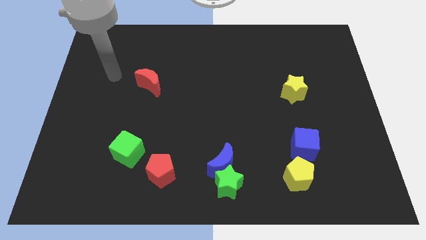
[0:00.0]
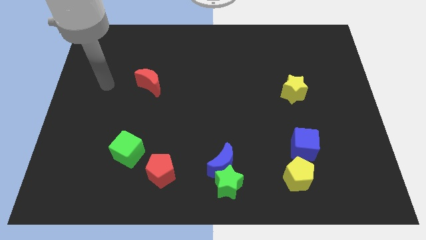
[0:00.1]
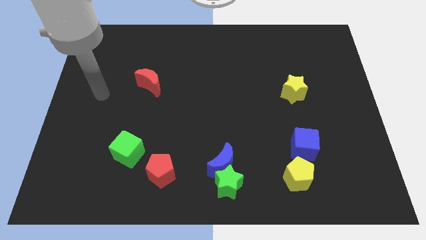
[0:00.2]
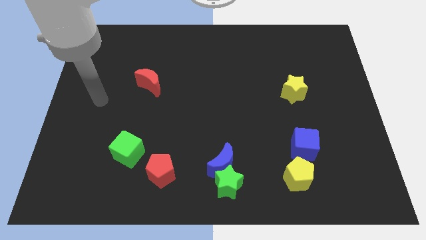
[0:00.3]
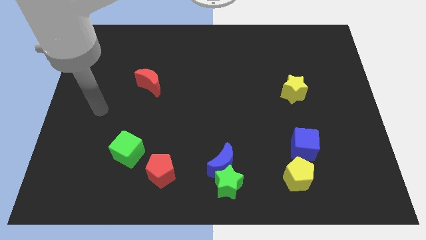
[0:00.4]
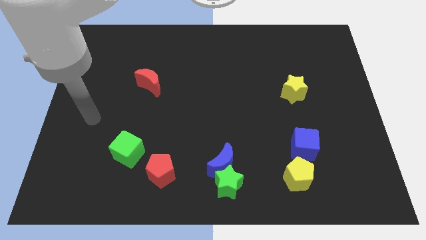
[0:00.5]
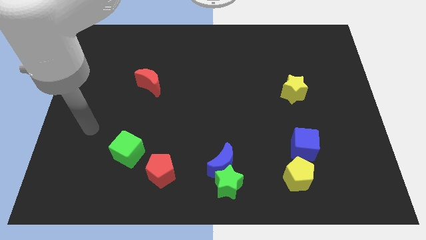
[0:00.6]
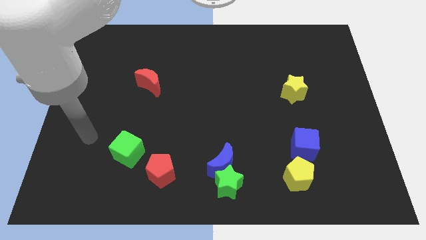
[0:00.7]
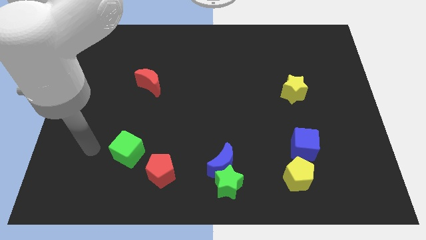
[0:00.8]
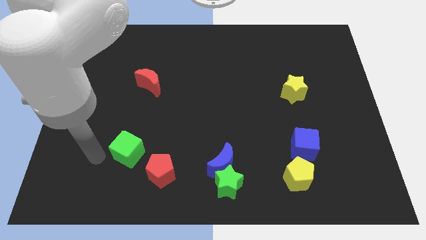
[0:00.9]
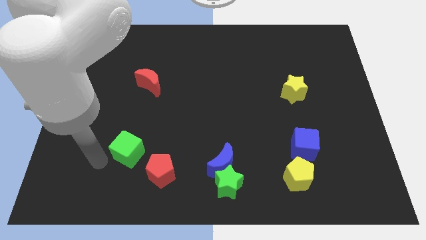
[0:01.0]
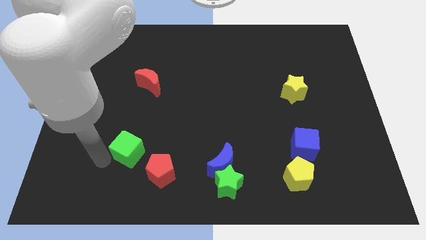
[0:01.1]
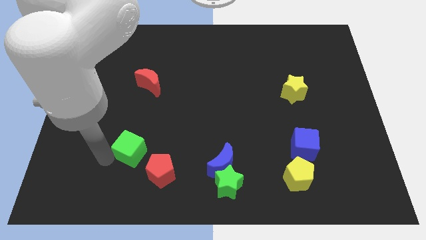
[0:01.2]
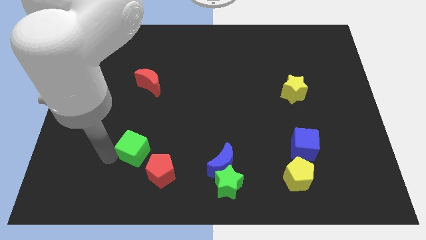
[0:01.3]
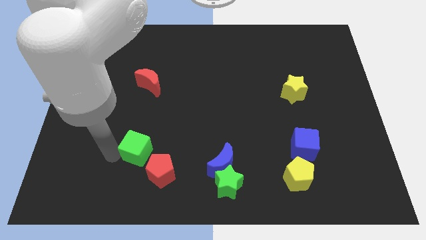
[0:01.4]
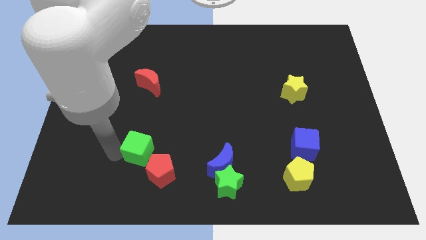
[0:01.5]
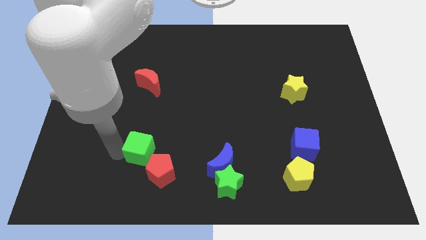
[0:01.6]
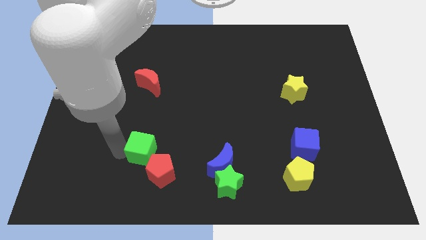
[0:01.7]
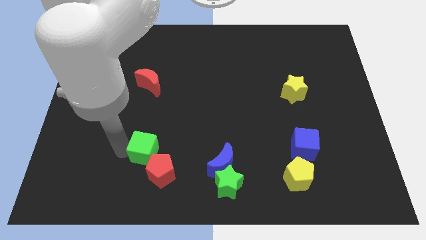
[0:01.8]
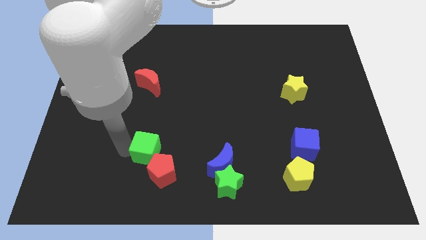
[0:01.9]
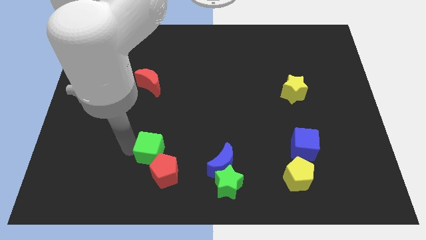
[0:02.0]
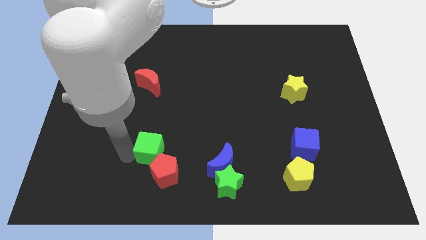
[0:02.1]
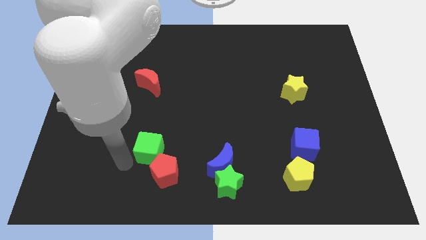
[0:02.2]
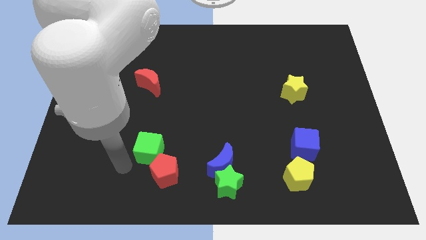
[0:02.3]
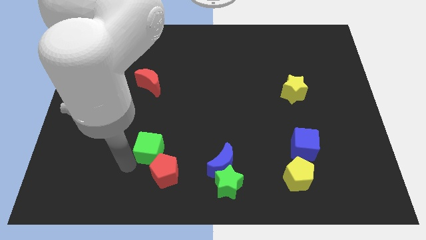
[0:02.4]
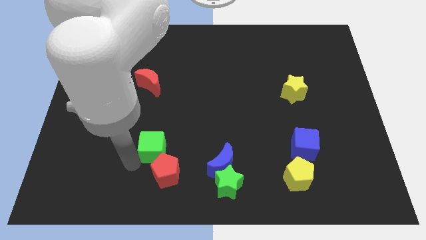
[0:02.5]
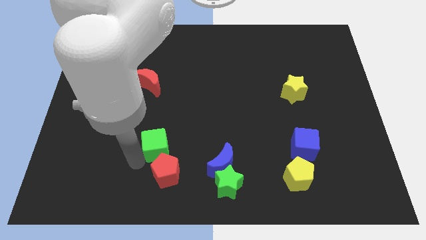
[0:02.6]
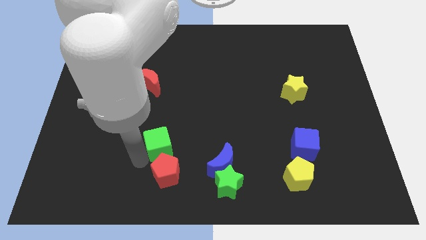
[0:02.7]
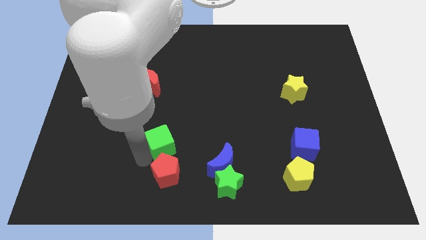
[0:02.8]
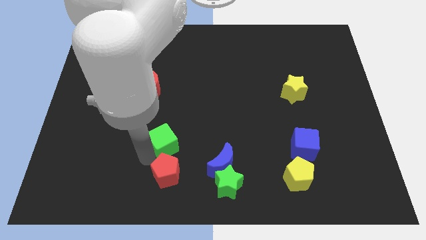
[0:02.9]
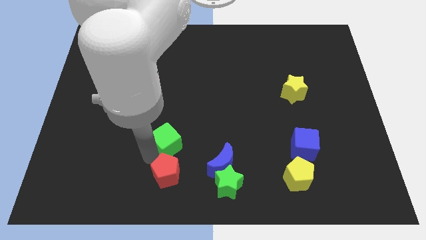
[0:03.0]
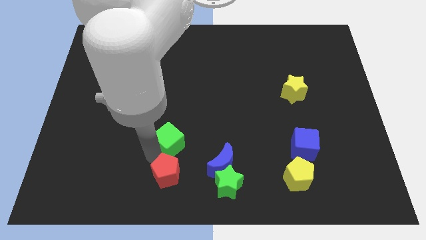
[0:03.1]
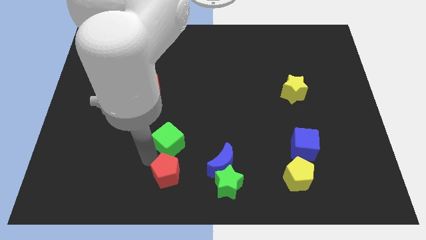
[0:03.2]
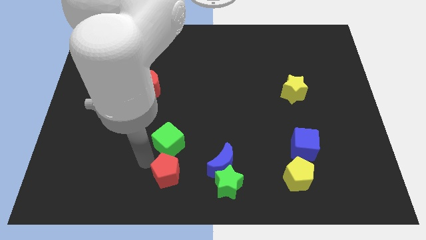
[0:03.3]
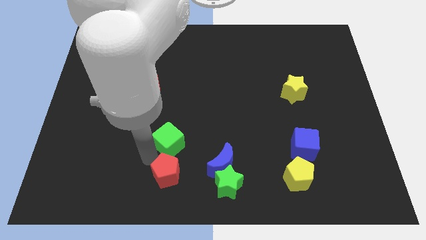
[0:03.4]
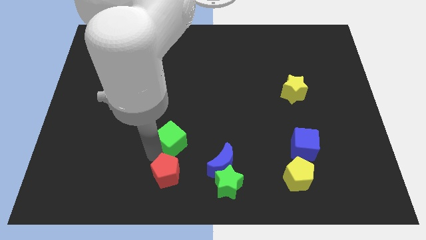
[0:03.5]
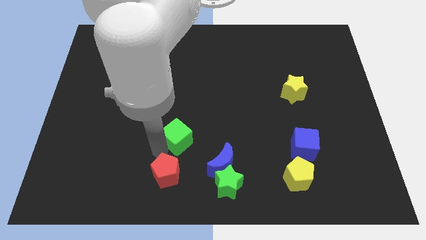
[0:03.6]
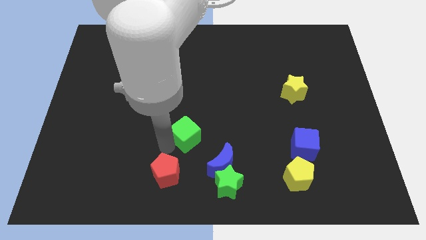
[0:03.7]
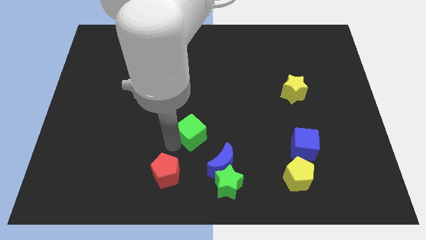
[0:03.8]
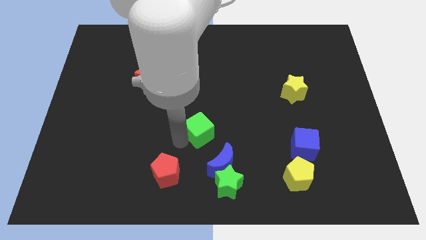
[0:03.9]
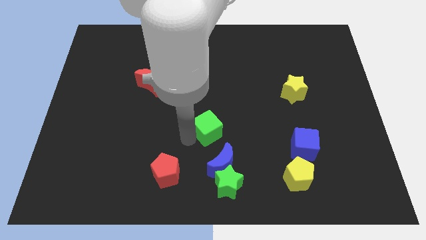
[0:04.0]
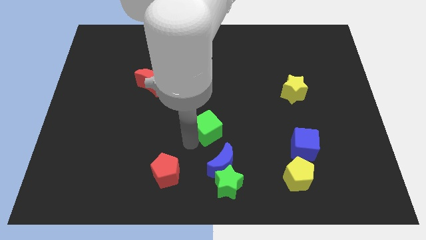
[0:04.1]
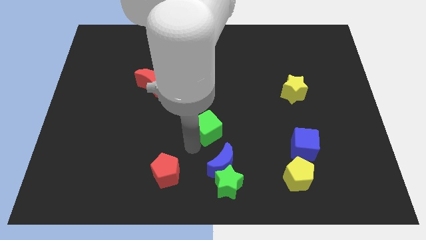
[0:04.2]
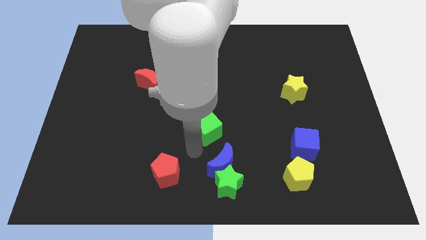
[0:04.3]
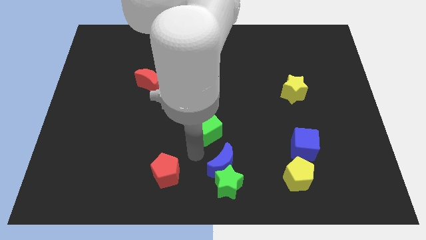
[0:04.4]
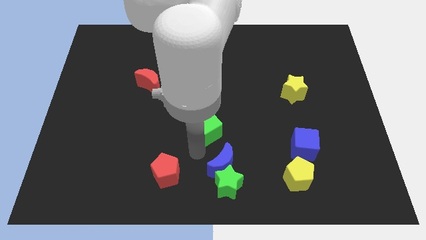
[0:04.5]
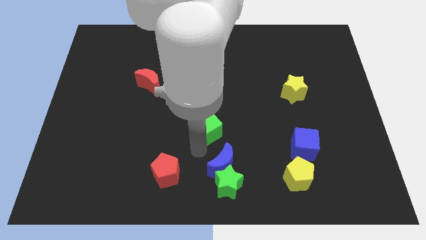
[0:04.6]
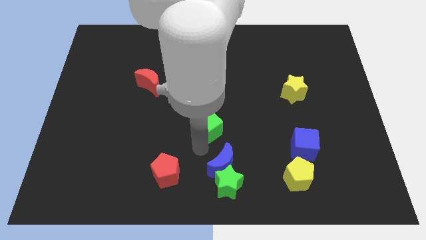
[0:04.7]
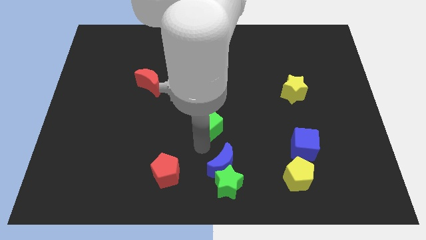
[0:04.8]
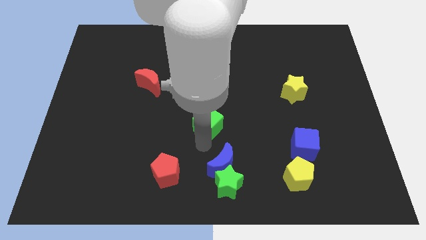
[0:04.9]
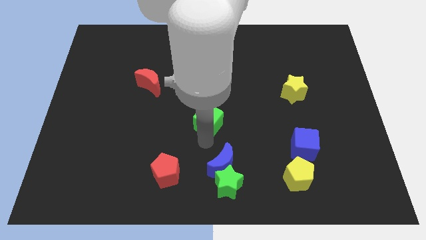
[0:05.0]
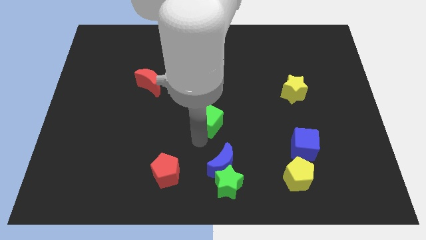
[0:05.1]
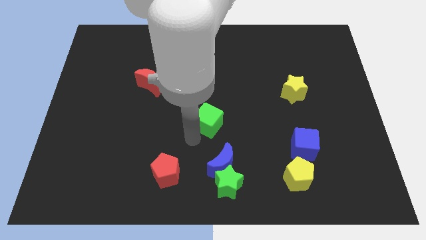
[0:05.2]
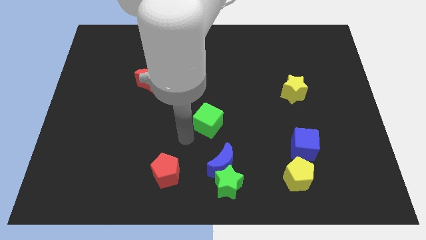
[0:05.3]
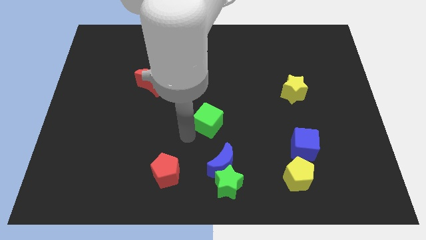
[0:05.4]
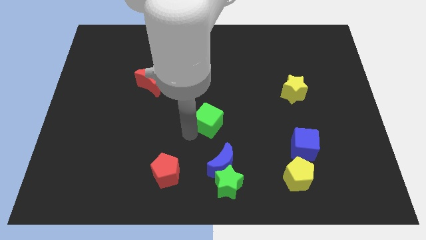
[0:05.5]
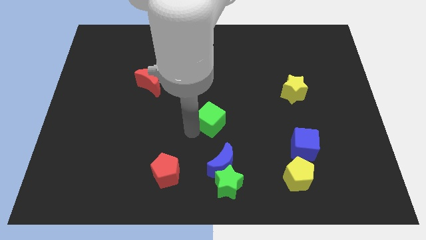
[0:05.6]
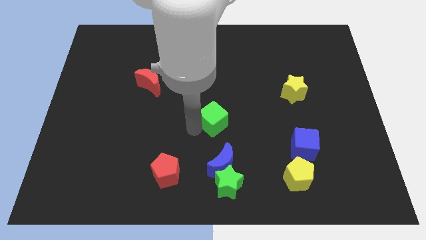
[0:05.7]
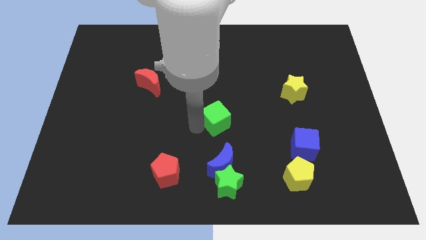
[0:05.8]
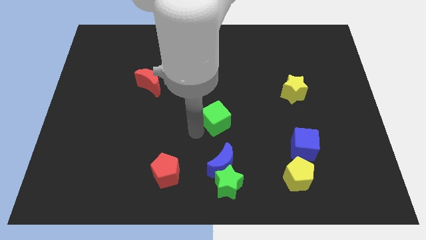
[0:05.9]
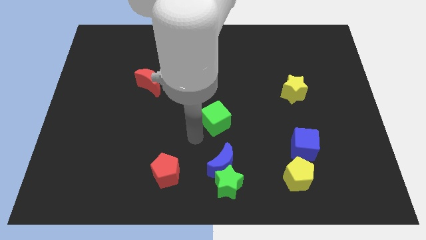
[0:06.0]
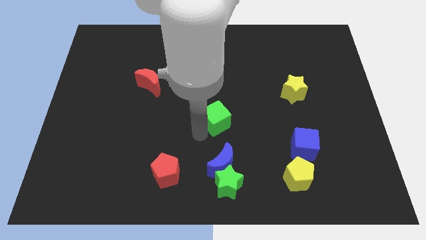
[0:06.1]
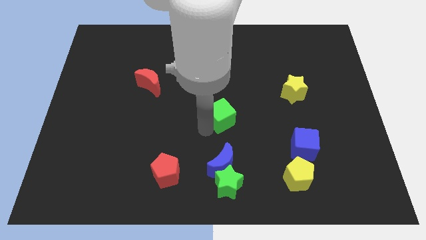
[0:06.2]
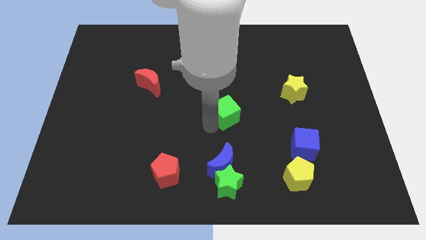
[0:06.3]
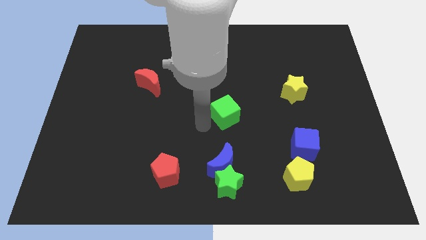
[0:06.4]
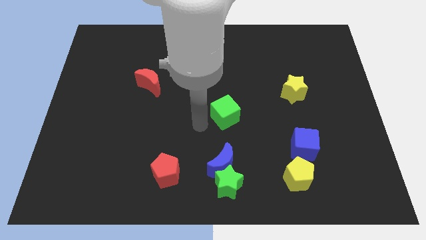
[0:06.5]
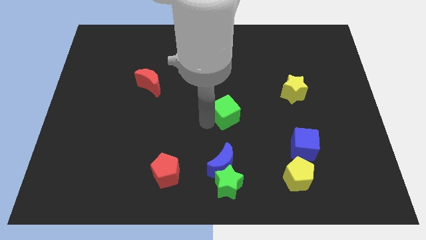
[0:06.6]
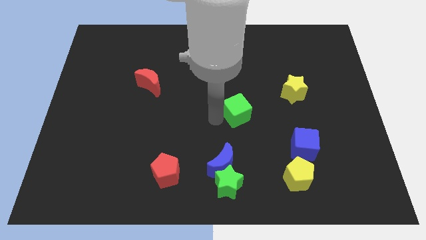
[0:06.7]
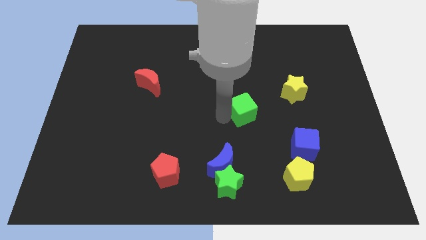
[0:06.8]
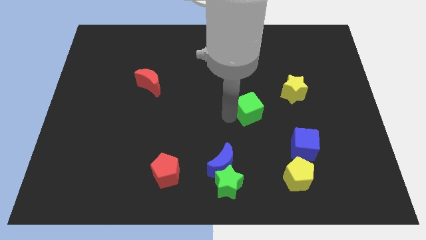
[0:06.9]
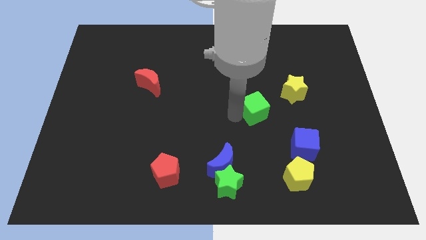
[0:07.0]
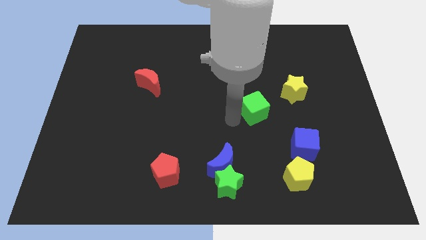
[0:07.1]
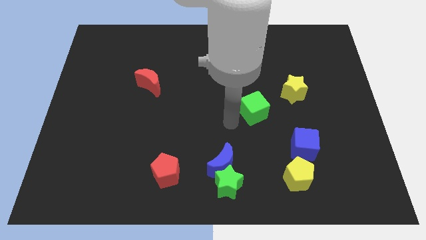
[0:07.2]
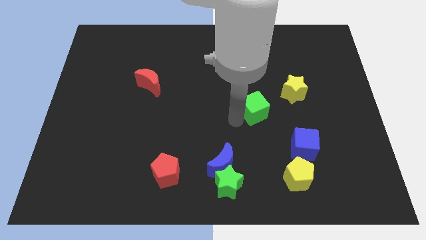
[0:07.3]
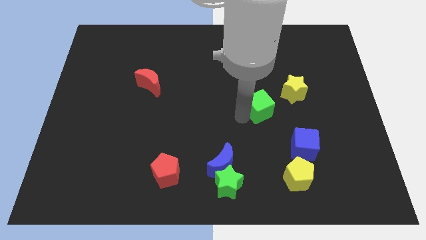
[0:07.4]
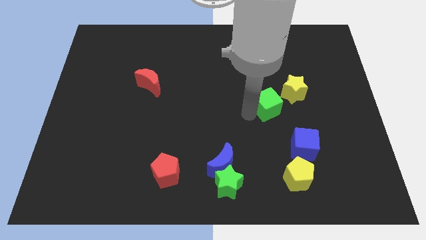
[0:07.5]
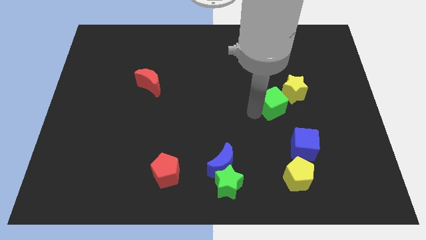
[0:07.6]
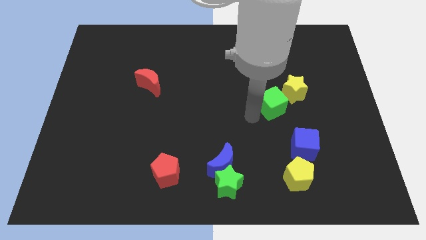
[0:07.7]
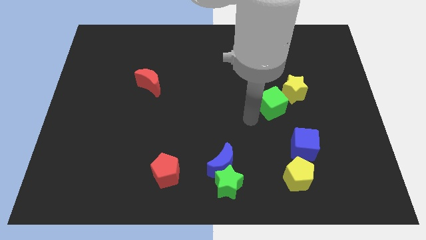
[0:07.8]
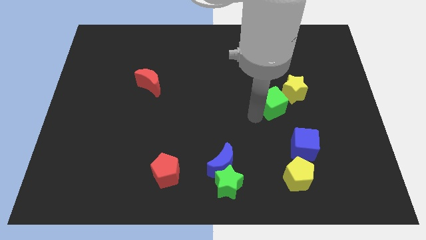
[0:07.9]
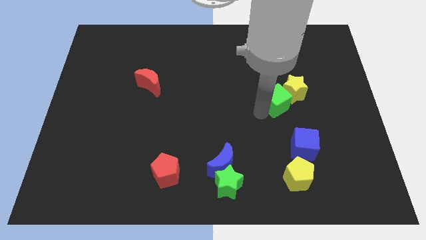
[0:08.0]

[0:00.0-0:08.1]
put the green cube next to the yellow star

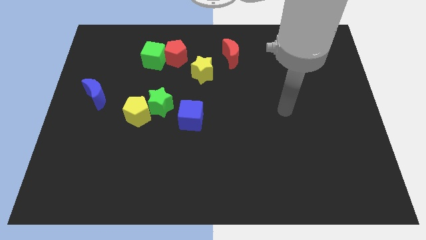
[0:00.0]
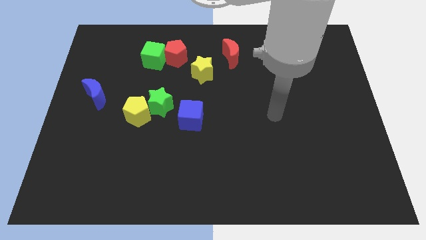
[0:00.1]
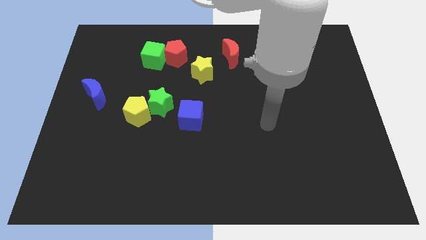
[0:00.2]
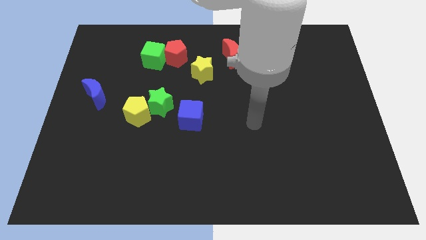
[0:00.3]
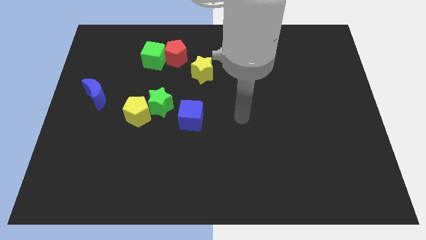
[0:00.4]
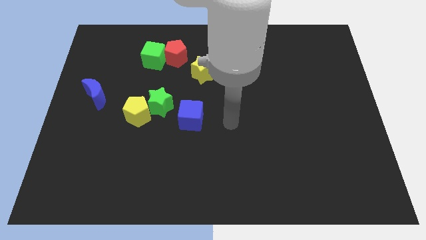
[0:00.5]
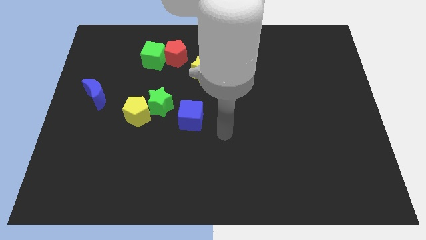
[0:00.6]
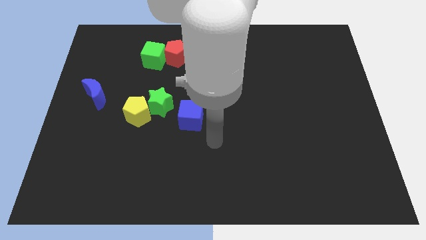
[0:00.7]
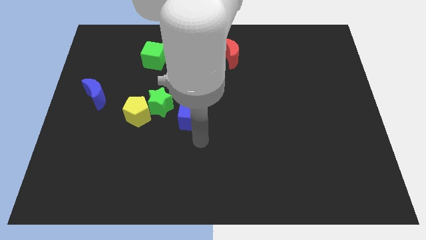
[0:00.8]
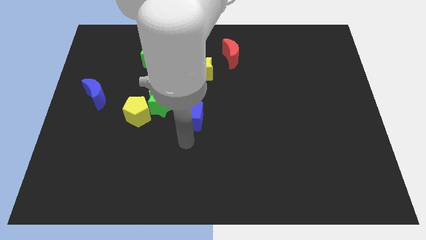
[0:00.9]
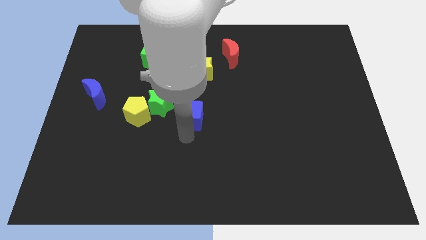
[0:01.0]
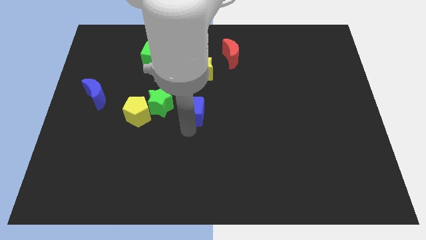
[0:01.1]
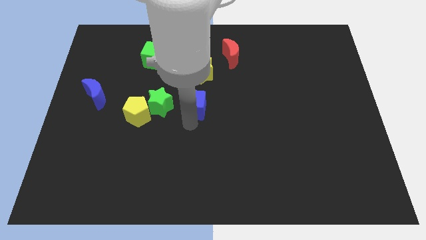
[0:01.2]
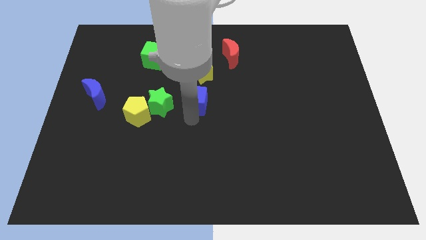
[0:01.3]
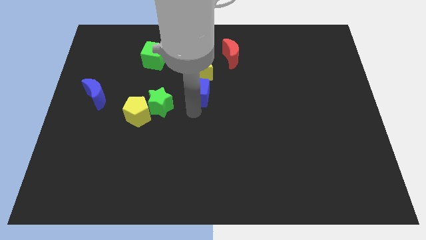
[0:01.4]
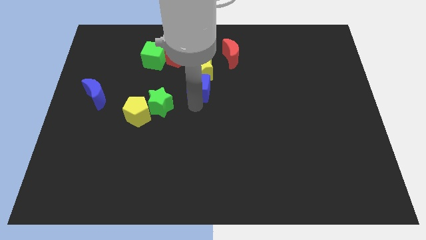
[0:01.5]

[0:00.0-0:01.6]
slide the blue cube to the yellow star
